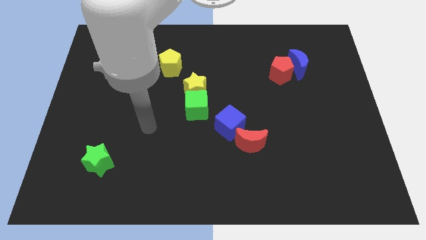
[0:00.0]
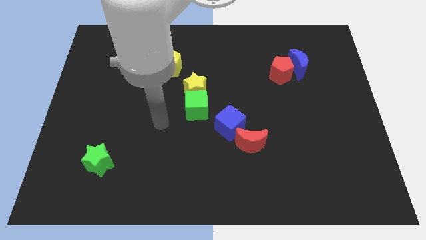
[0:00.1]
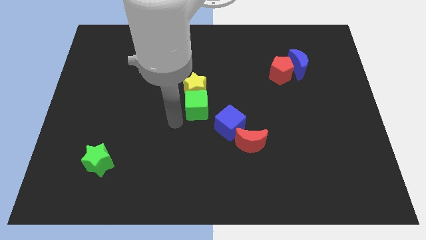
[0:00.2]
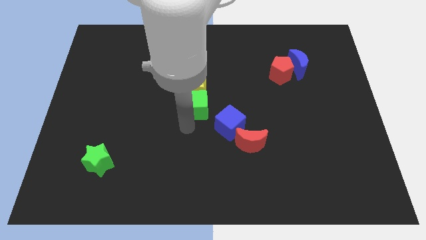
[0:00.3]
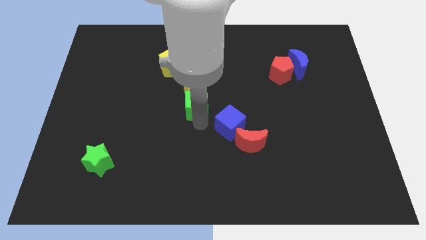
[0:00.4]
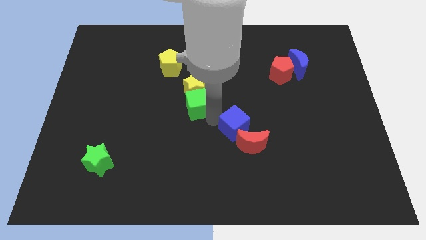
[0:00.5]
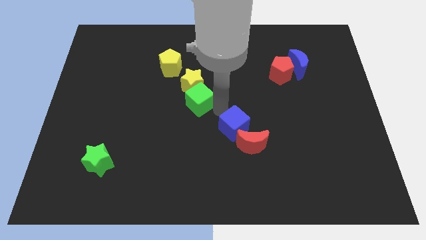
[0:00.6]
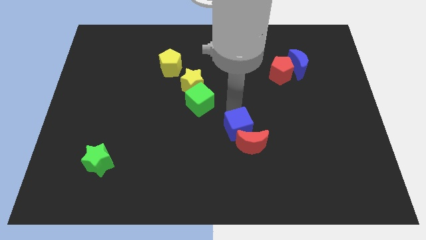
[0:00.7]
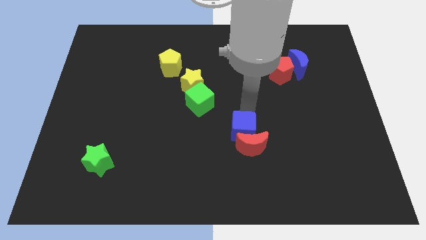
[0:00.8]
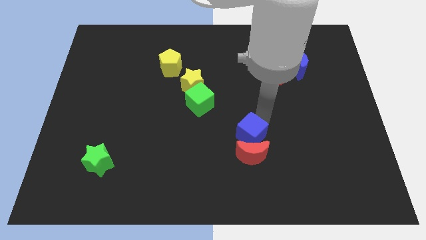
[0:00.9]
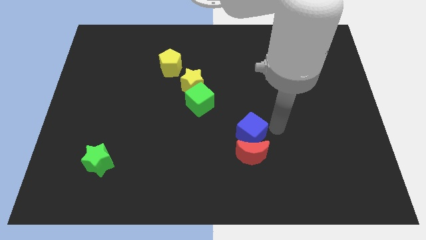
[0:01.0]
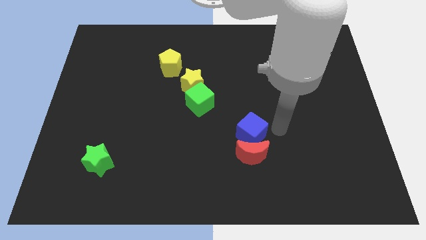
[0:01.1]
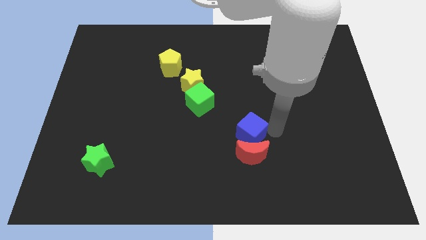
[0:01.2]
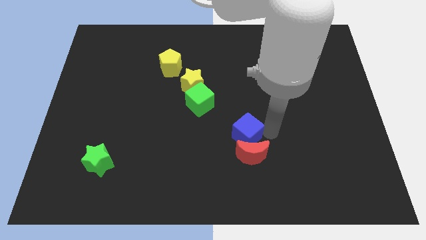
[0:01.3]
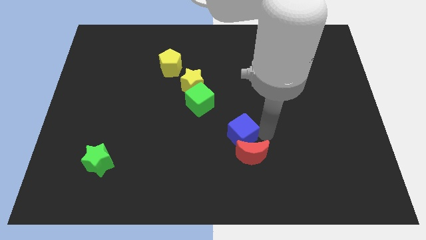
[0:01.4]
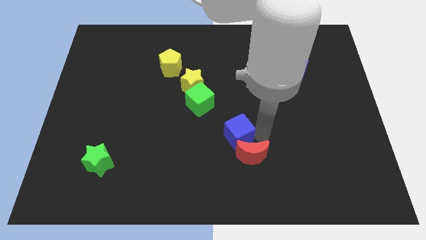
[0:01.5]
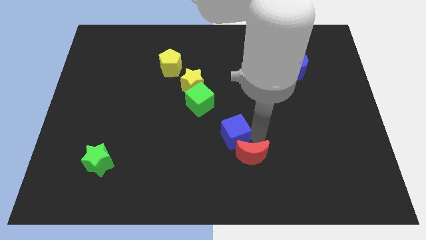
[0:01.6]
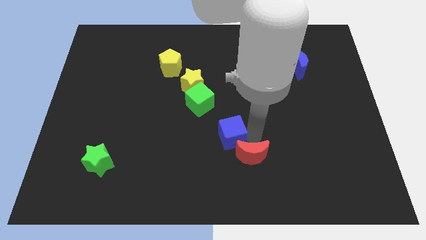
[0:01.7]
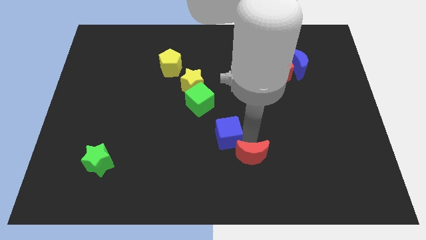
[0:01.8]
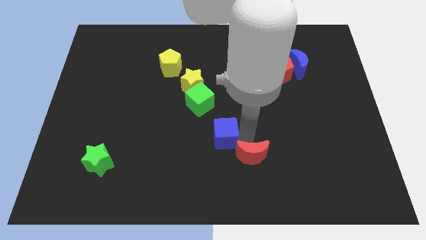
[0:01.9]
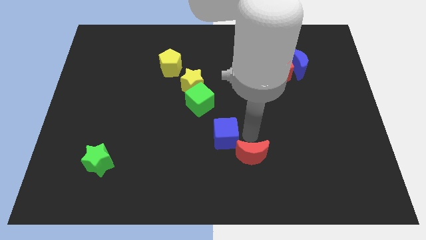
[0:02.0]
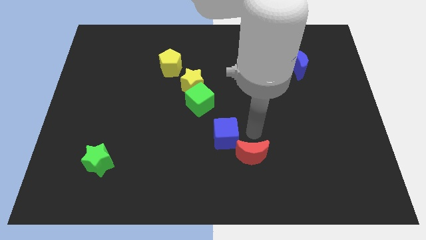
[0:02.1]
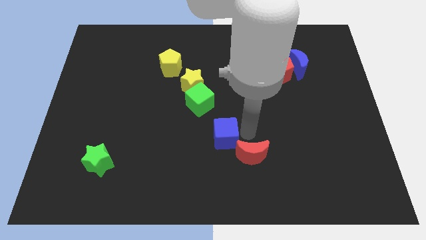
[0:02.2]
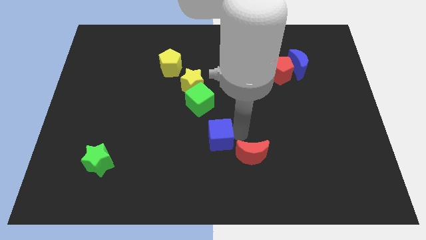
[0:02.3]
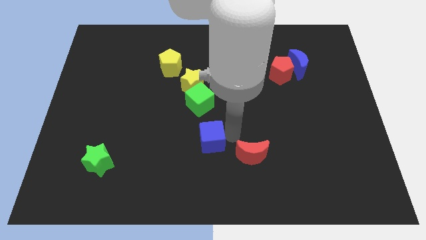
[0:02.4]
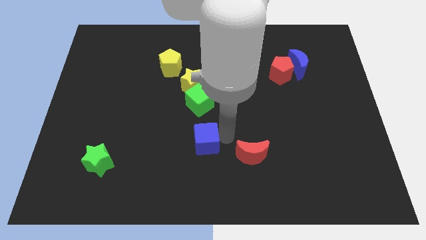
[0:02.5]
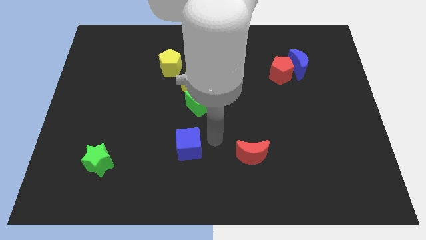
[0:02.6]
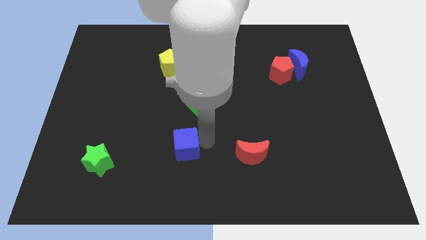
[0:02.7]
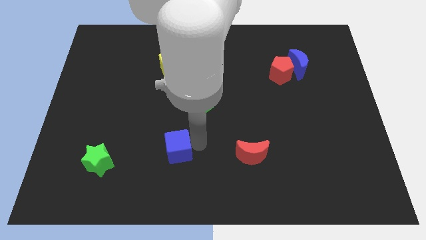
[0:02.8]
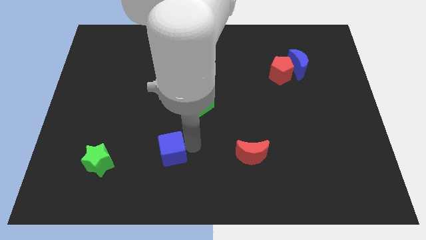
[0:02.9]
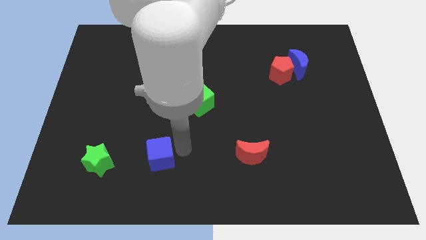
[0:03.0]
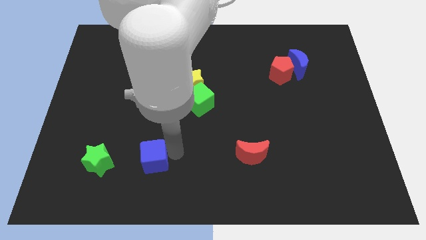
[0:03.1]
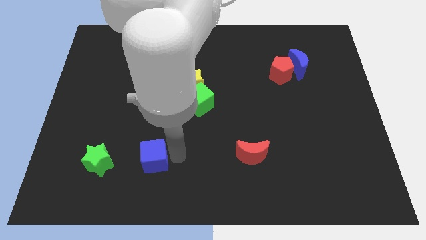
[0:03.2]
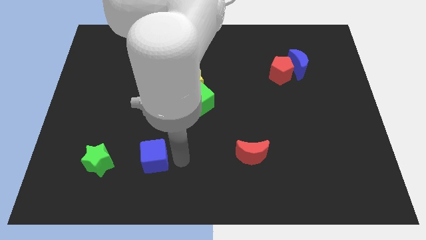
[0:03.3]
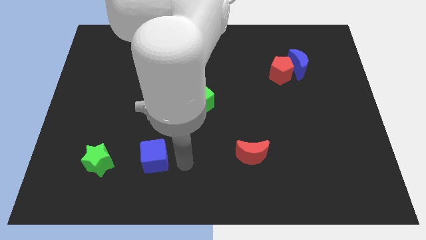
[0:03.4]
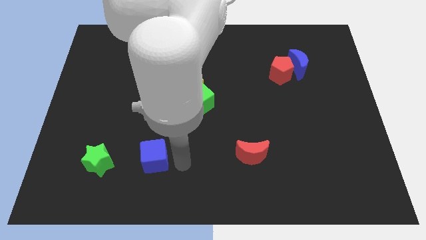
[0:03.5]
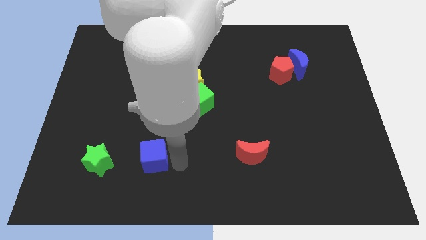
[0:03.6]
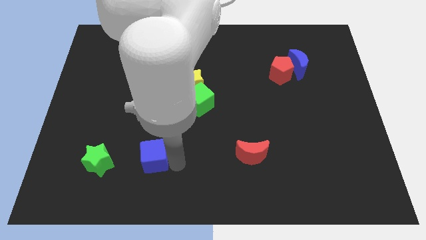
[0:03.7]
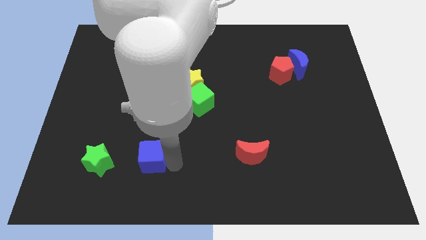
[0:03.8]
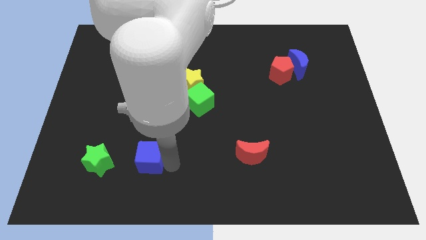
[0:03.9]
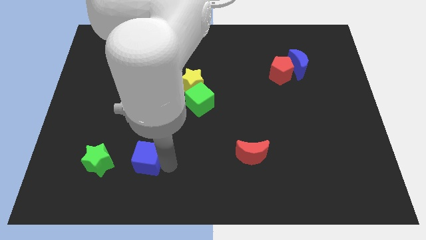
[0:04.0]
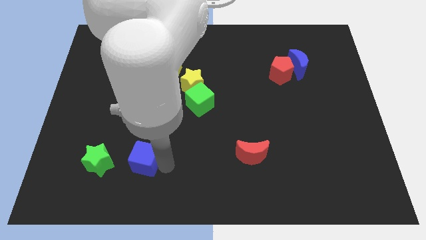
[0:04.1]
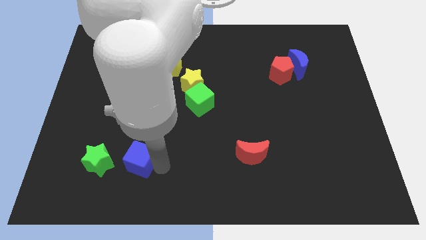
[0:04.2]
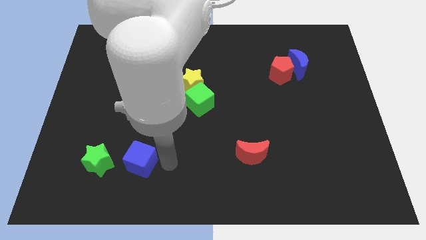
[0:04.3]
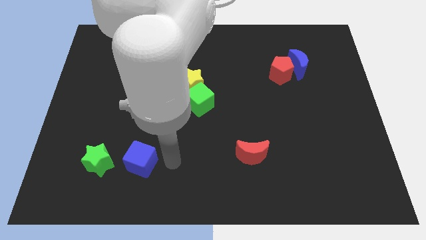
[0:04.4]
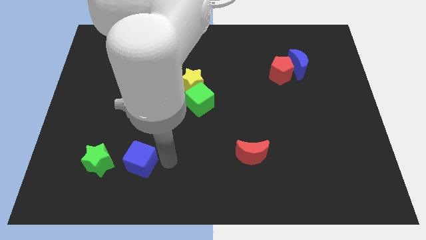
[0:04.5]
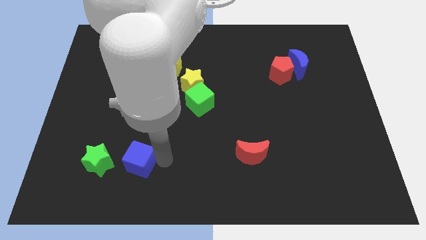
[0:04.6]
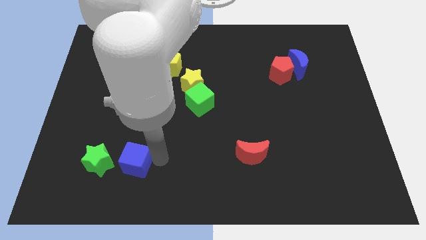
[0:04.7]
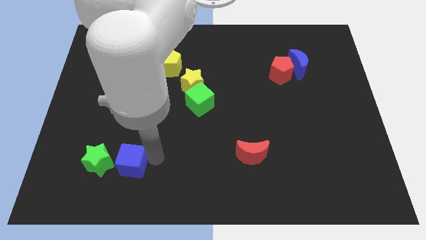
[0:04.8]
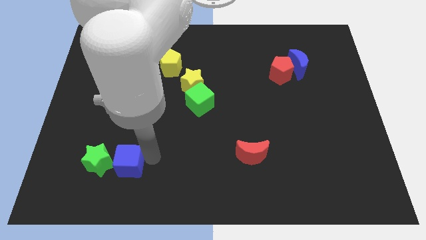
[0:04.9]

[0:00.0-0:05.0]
put the blue cube towards the green star

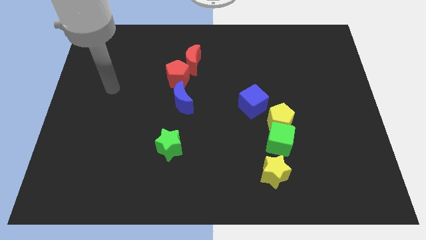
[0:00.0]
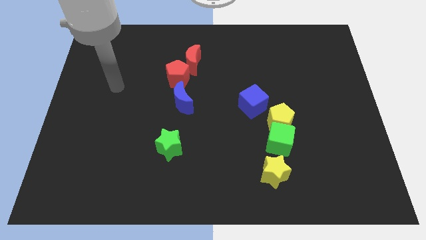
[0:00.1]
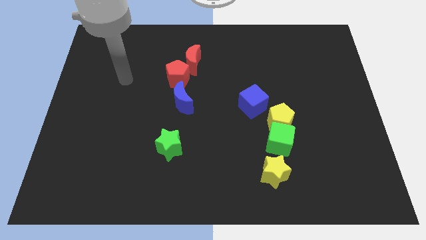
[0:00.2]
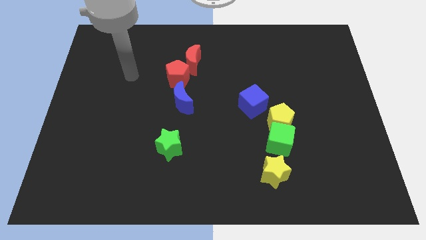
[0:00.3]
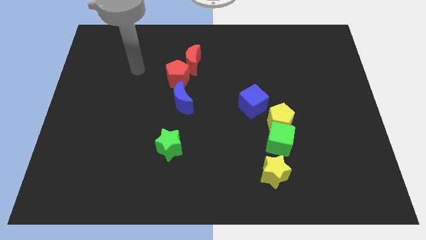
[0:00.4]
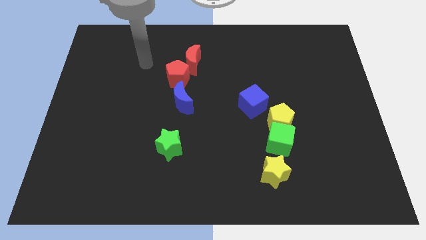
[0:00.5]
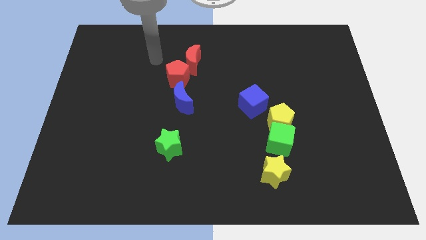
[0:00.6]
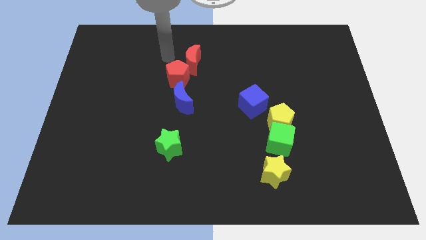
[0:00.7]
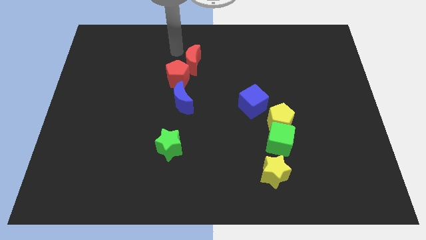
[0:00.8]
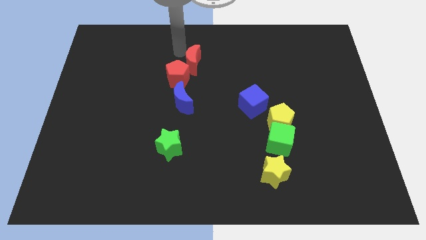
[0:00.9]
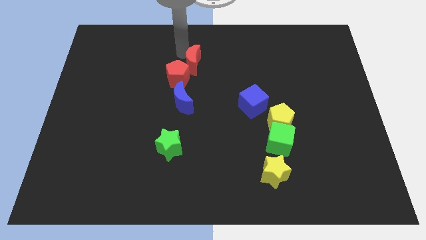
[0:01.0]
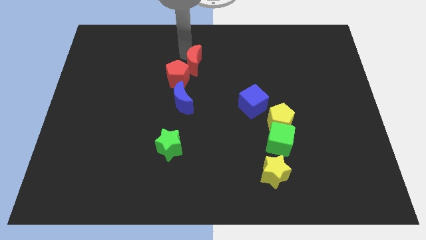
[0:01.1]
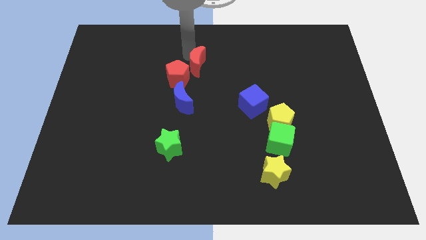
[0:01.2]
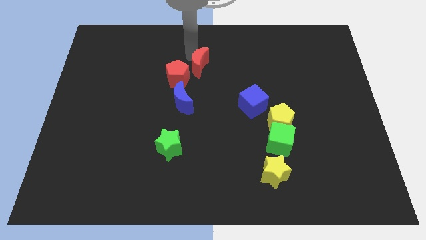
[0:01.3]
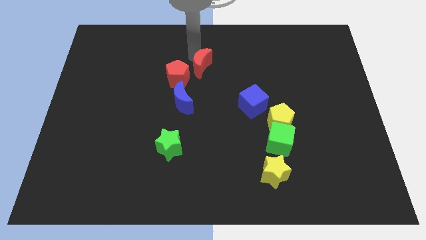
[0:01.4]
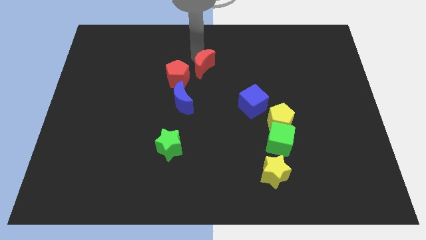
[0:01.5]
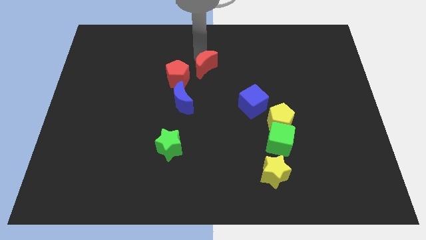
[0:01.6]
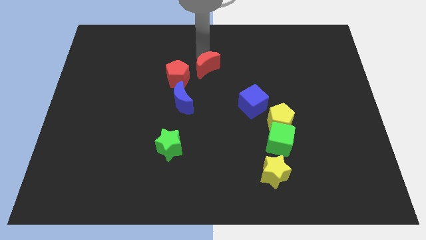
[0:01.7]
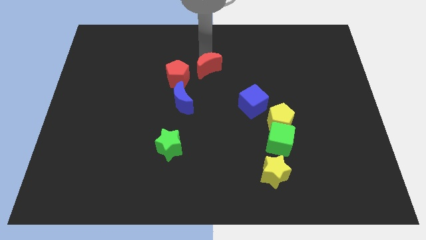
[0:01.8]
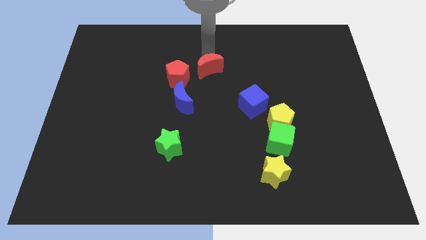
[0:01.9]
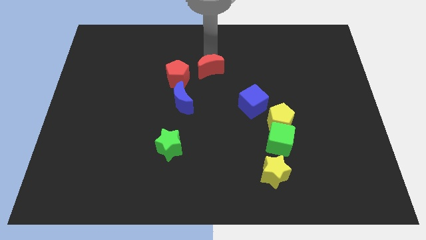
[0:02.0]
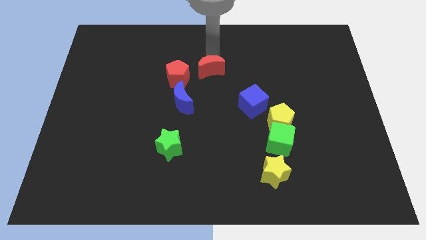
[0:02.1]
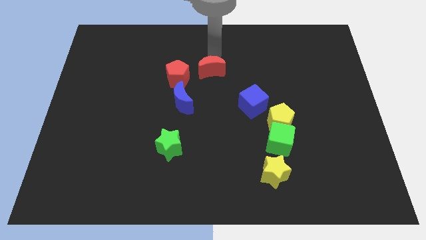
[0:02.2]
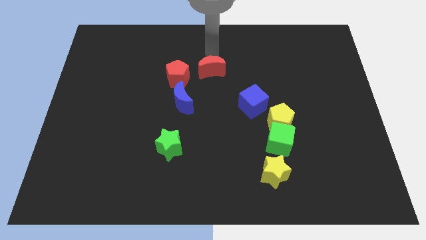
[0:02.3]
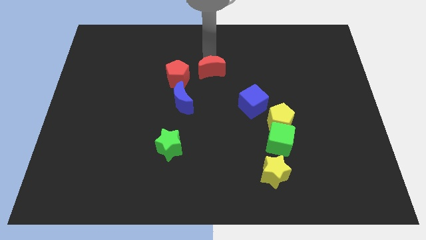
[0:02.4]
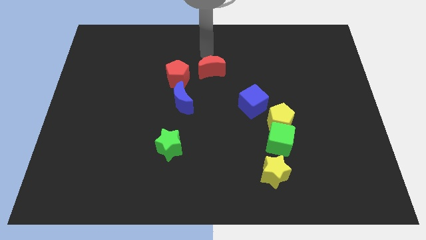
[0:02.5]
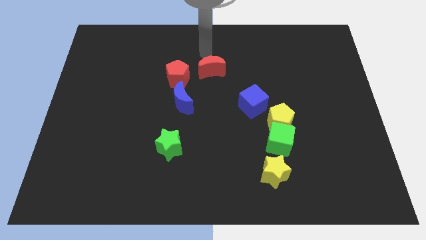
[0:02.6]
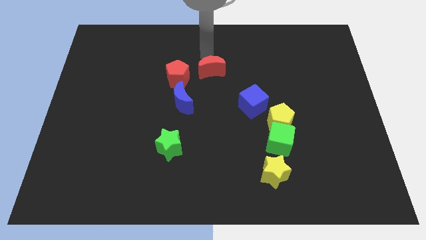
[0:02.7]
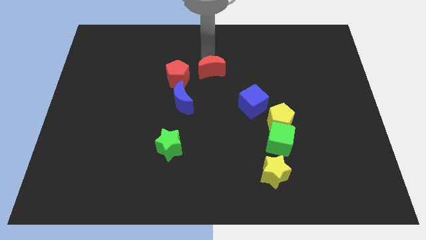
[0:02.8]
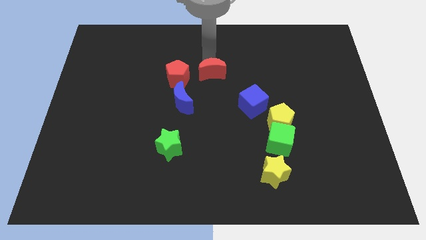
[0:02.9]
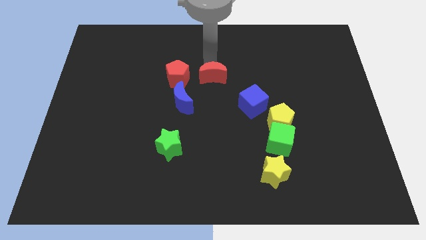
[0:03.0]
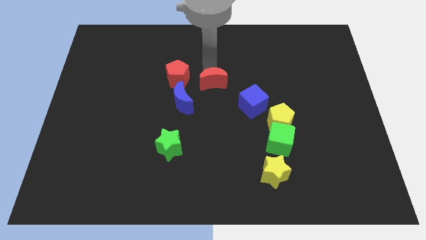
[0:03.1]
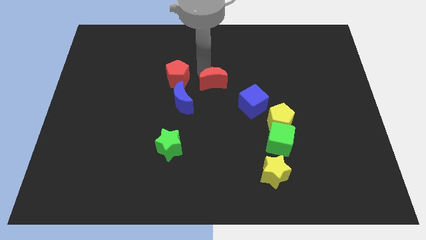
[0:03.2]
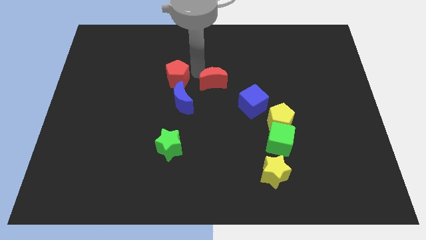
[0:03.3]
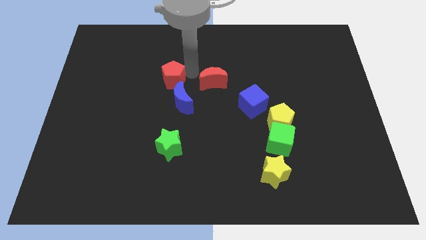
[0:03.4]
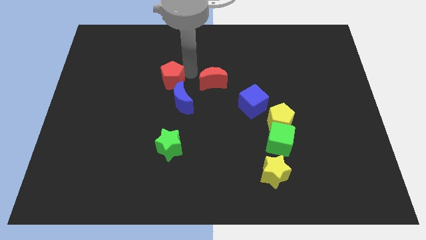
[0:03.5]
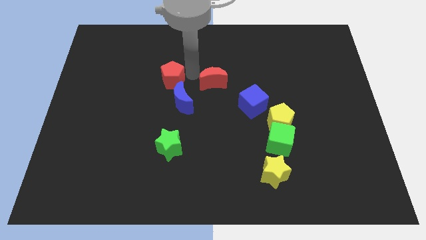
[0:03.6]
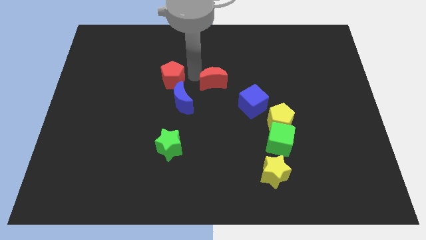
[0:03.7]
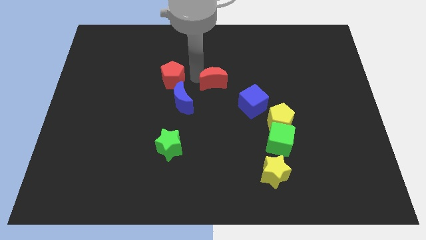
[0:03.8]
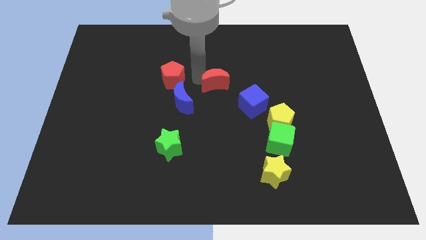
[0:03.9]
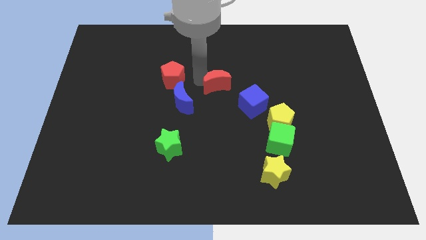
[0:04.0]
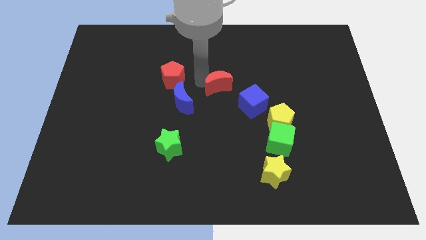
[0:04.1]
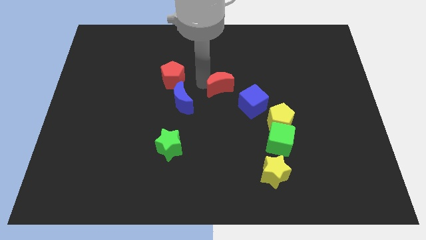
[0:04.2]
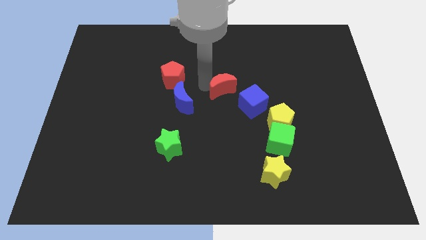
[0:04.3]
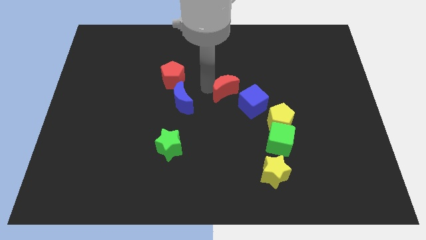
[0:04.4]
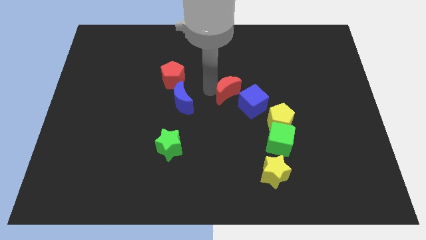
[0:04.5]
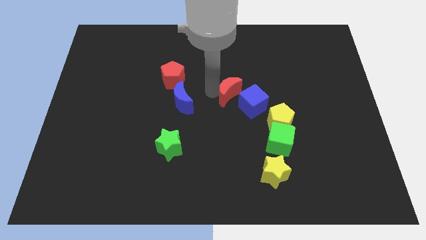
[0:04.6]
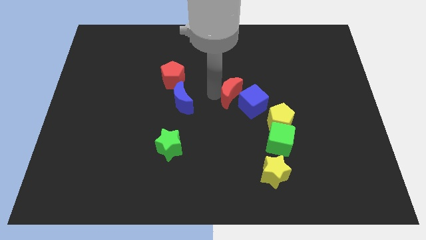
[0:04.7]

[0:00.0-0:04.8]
put the red moon to the blue cube
